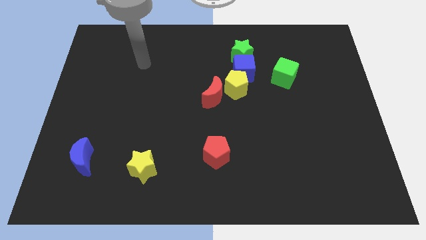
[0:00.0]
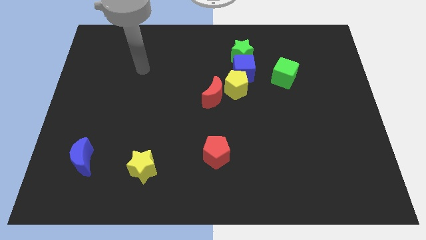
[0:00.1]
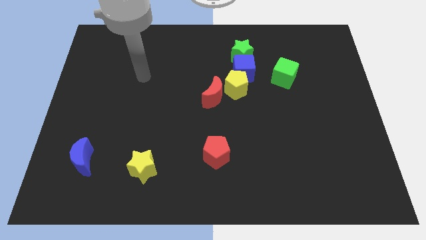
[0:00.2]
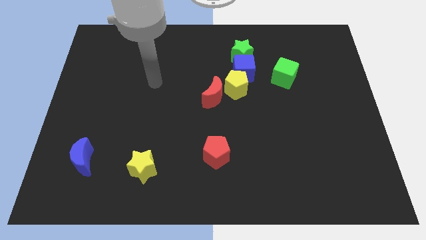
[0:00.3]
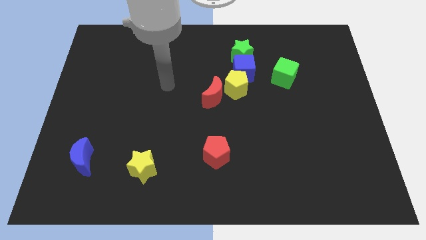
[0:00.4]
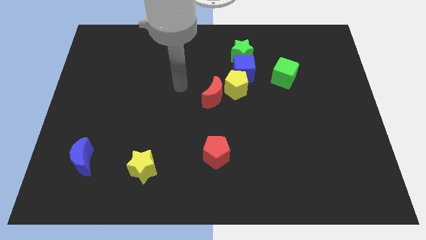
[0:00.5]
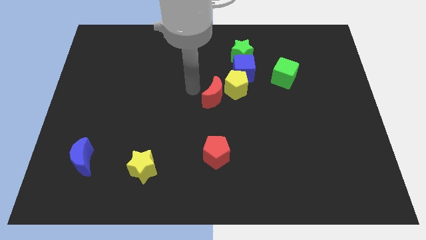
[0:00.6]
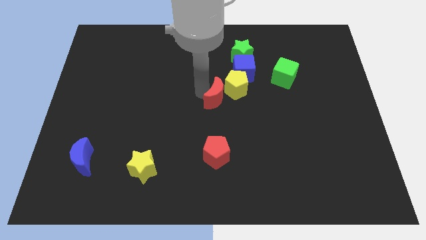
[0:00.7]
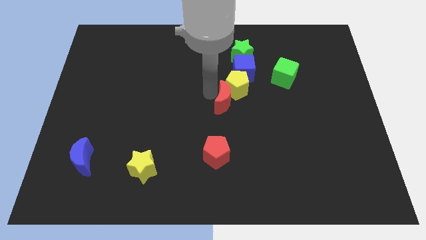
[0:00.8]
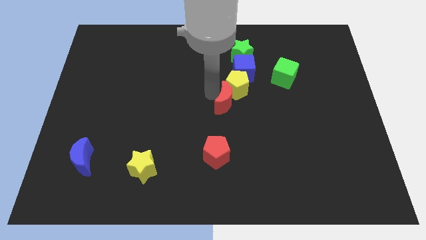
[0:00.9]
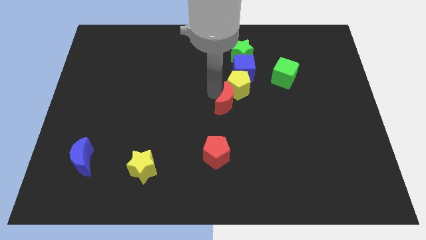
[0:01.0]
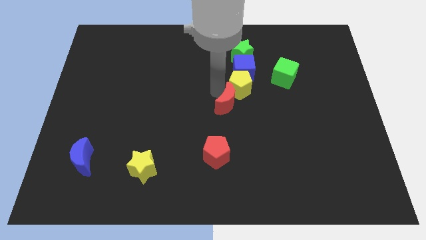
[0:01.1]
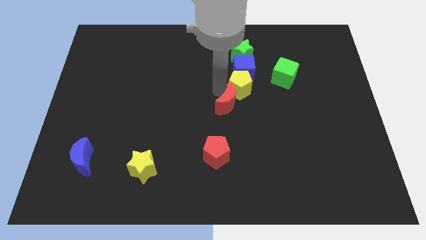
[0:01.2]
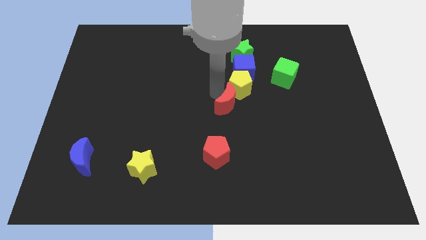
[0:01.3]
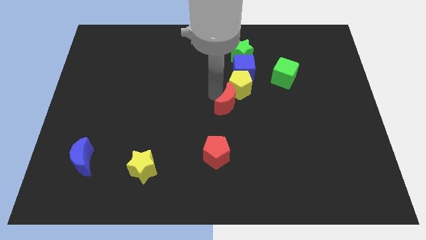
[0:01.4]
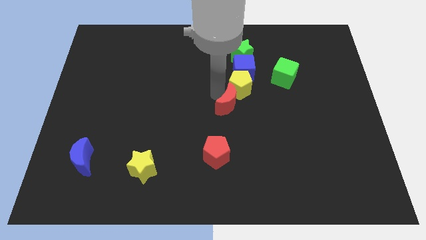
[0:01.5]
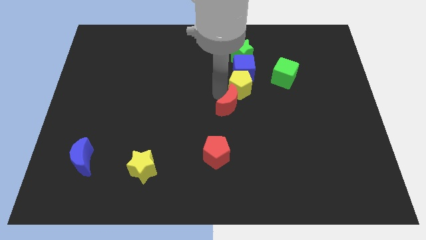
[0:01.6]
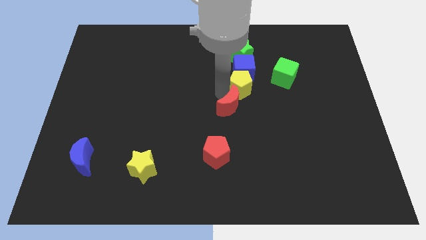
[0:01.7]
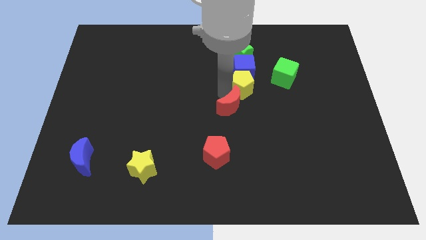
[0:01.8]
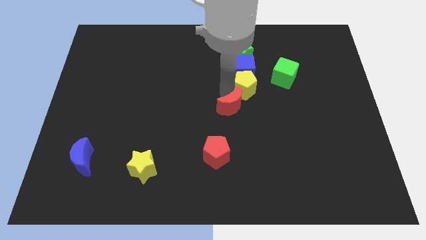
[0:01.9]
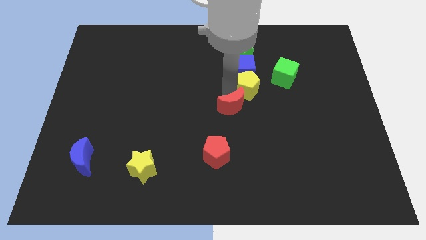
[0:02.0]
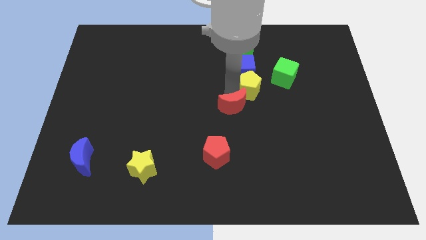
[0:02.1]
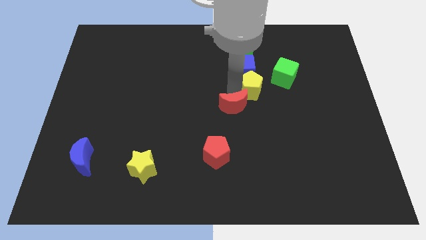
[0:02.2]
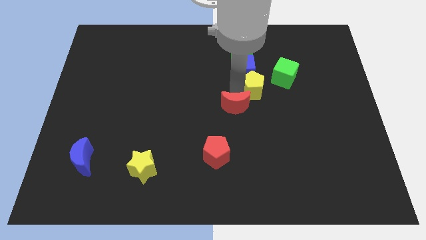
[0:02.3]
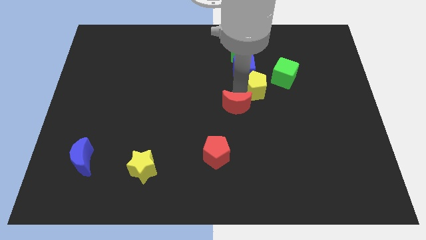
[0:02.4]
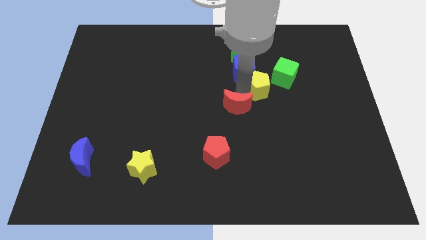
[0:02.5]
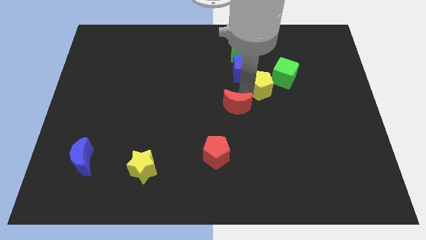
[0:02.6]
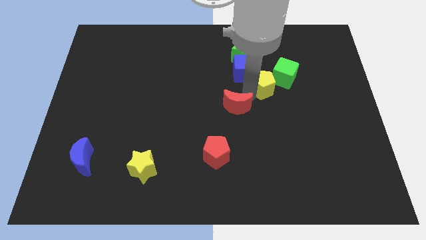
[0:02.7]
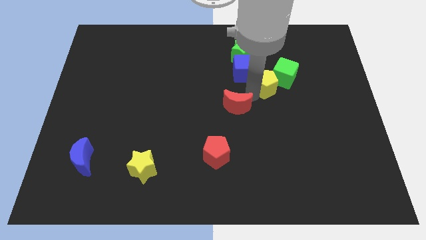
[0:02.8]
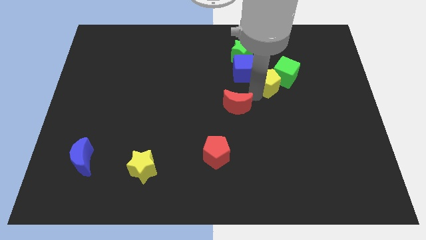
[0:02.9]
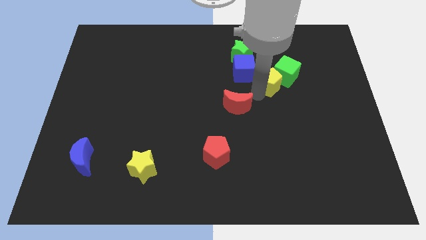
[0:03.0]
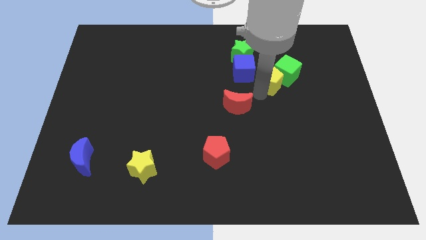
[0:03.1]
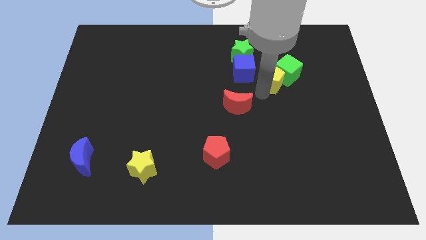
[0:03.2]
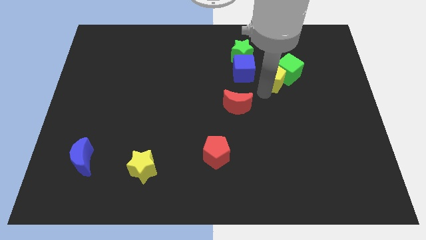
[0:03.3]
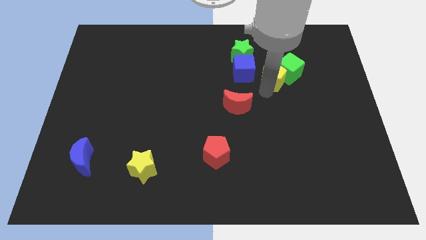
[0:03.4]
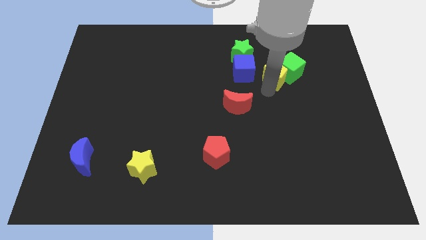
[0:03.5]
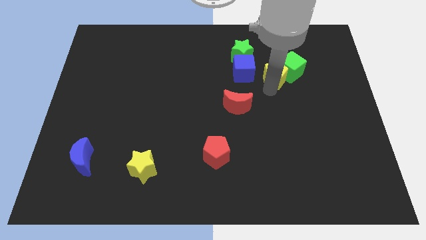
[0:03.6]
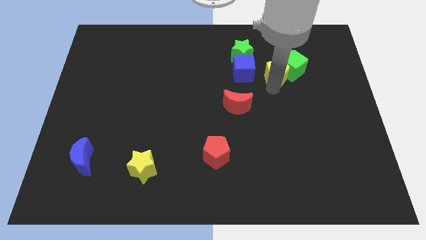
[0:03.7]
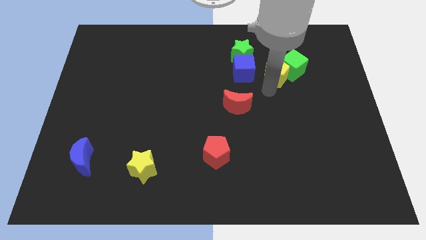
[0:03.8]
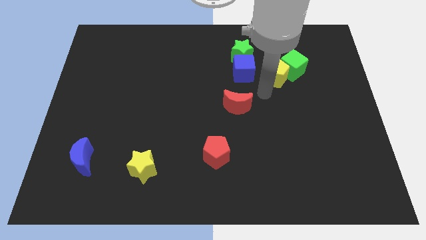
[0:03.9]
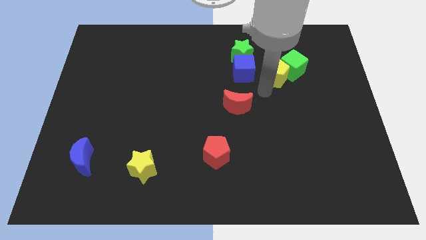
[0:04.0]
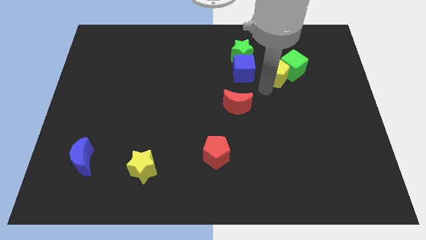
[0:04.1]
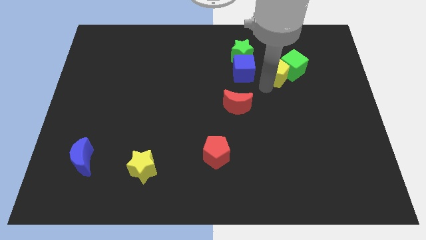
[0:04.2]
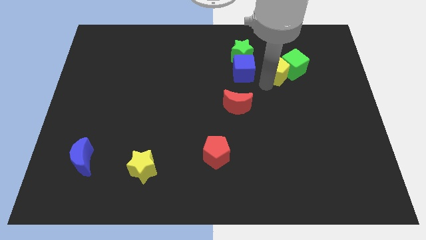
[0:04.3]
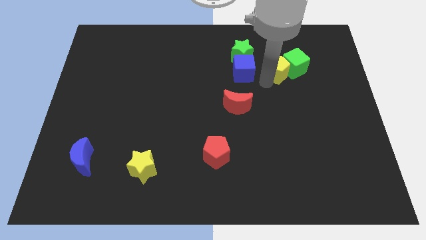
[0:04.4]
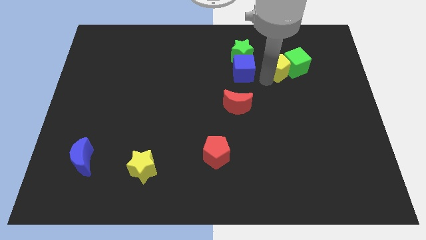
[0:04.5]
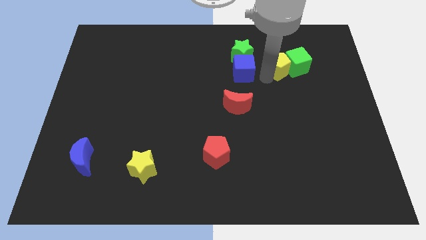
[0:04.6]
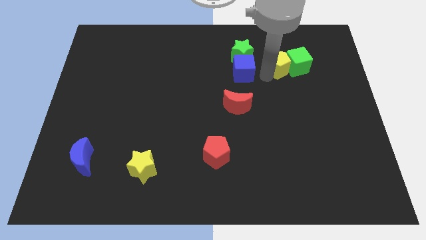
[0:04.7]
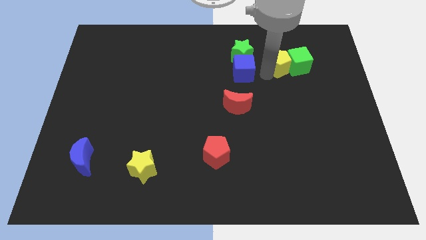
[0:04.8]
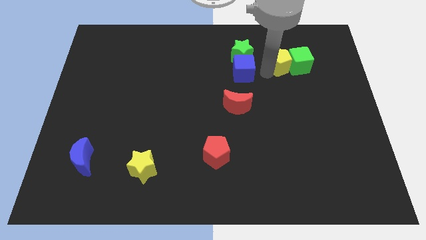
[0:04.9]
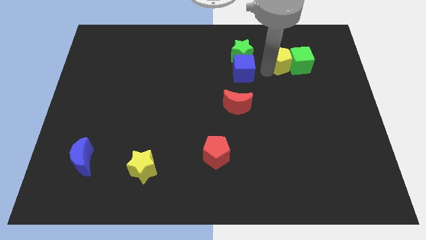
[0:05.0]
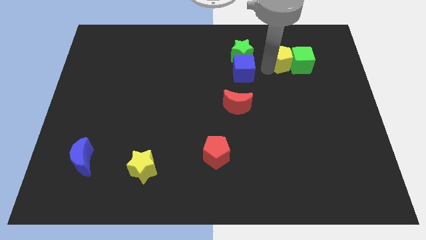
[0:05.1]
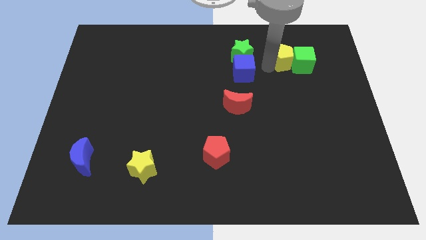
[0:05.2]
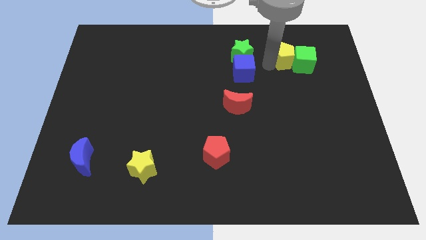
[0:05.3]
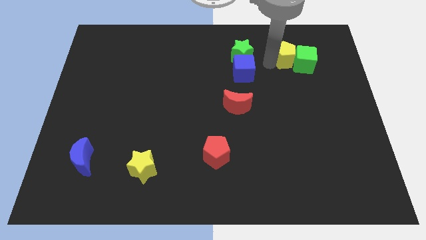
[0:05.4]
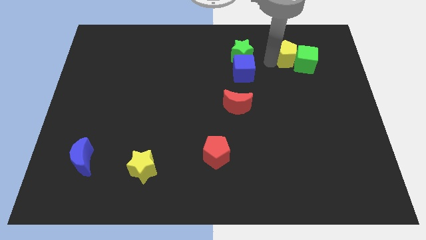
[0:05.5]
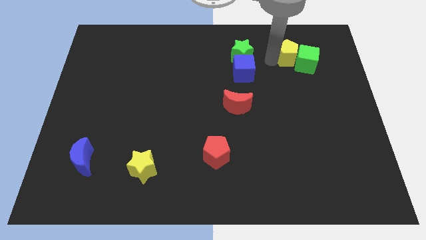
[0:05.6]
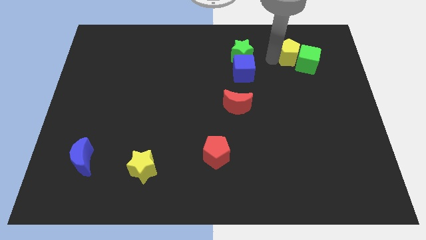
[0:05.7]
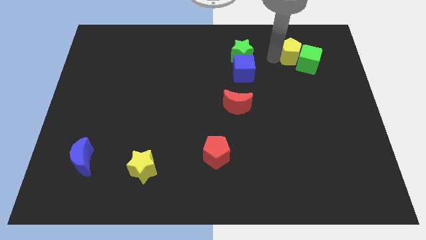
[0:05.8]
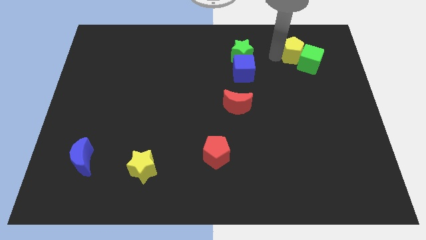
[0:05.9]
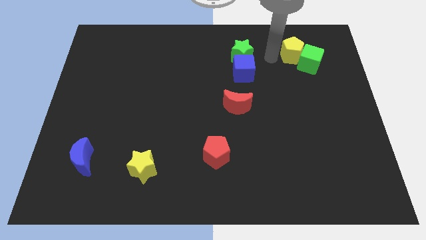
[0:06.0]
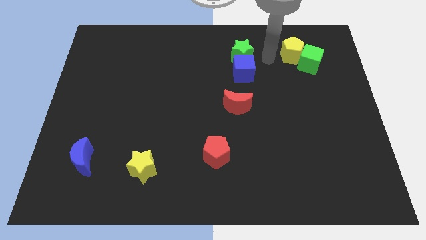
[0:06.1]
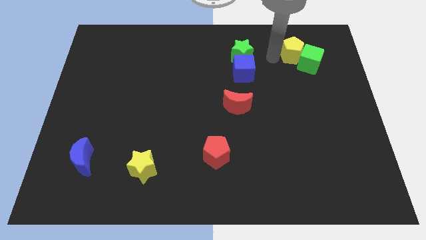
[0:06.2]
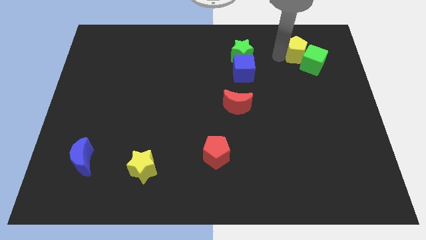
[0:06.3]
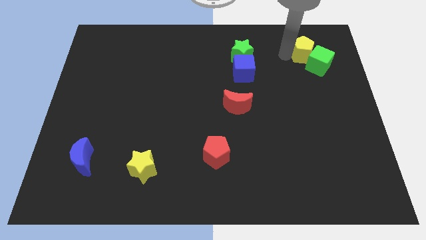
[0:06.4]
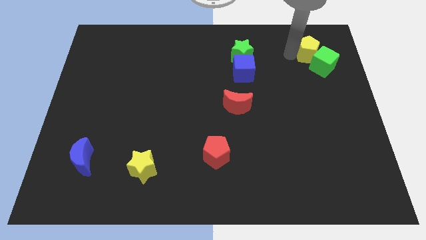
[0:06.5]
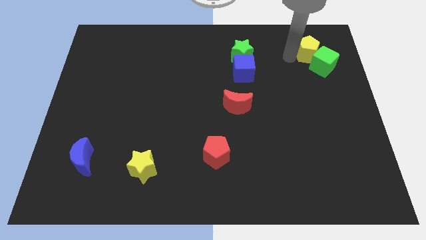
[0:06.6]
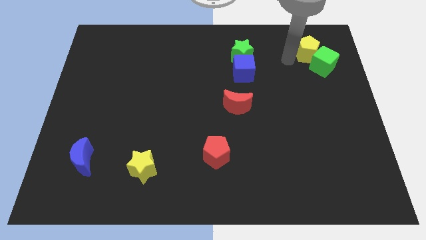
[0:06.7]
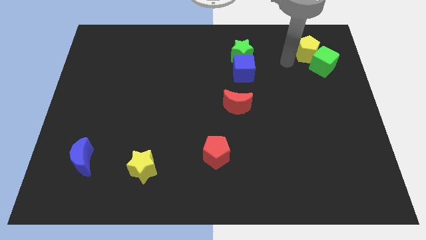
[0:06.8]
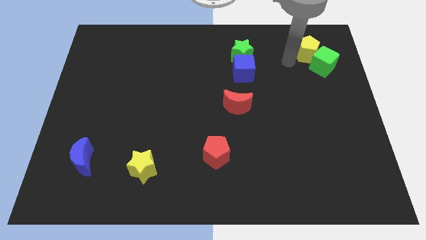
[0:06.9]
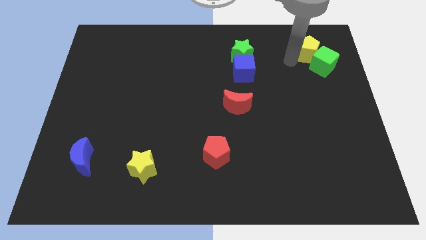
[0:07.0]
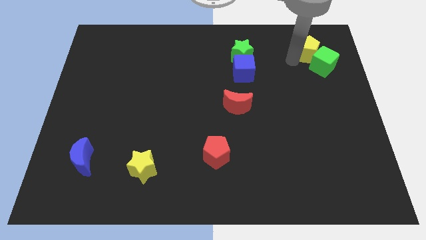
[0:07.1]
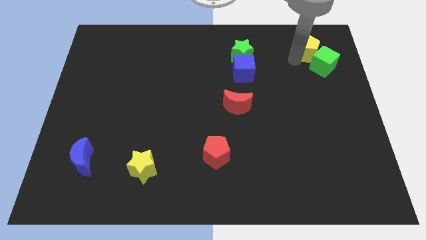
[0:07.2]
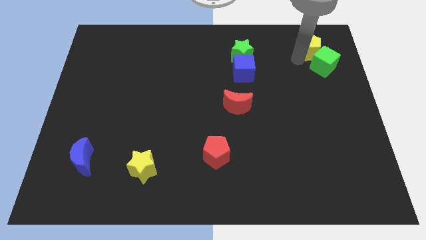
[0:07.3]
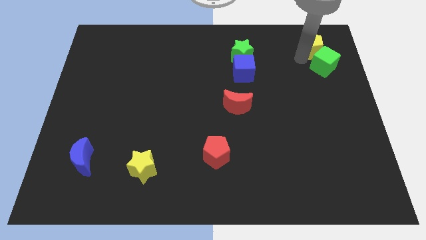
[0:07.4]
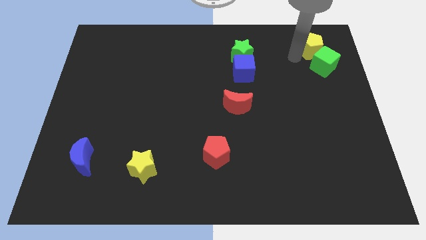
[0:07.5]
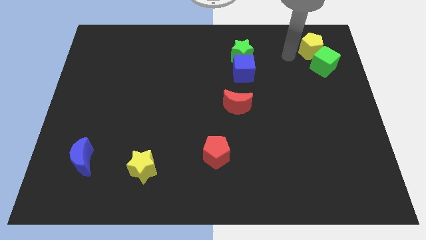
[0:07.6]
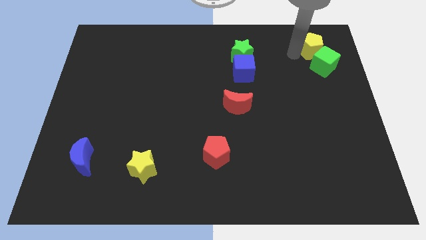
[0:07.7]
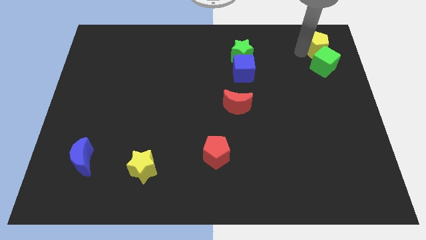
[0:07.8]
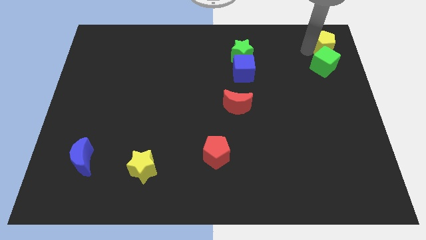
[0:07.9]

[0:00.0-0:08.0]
put the yellow pentagon to the upper right corner
